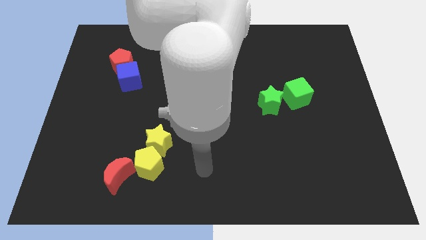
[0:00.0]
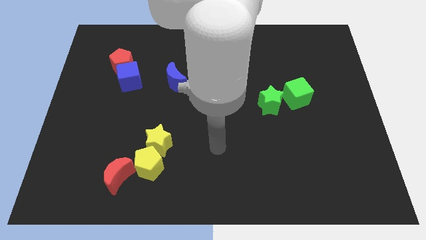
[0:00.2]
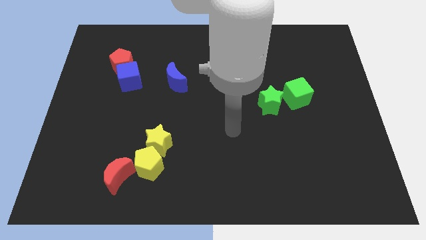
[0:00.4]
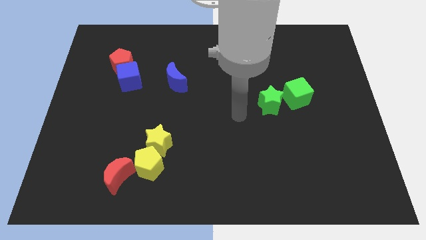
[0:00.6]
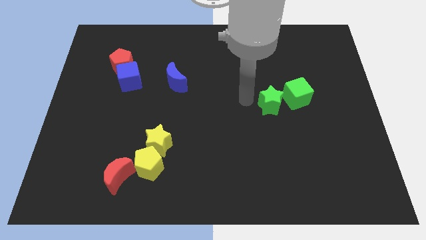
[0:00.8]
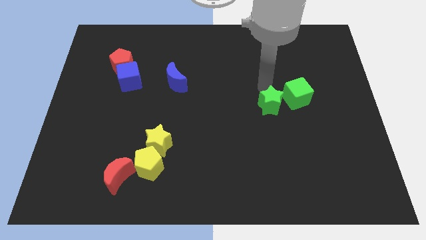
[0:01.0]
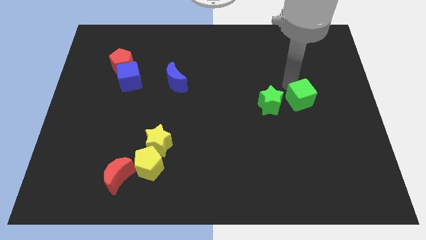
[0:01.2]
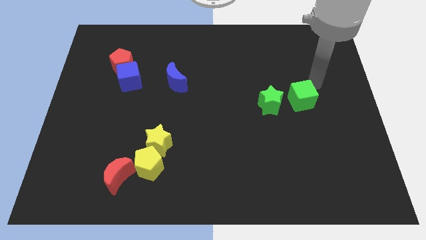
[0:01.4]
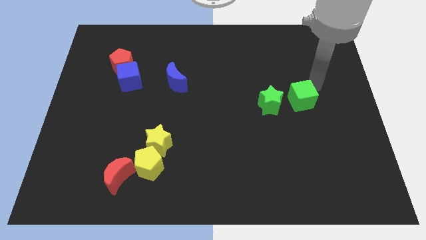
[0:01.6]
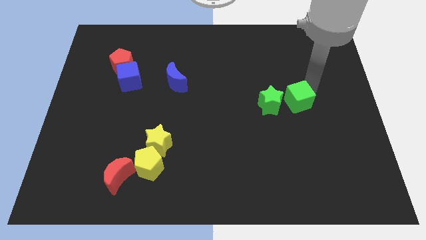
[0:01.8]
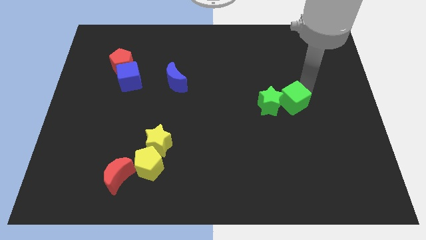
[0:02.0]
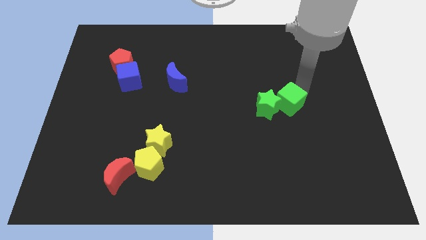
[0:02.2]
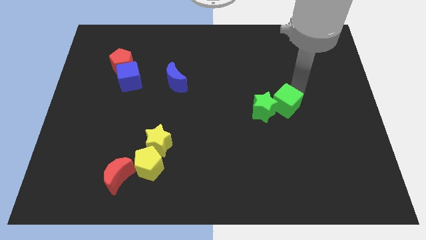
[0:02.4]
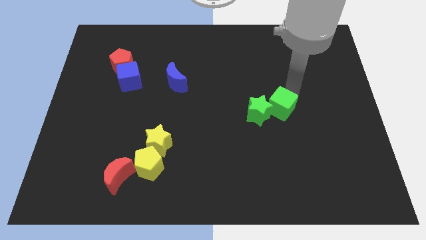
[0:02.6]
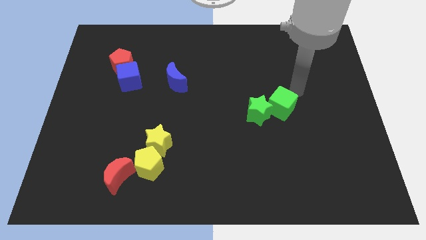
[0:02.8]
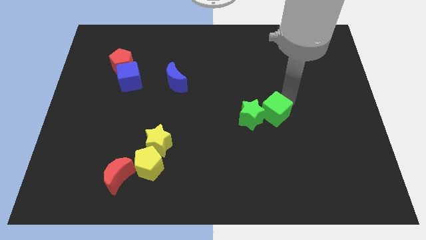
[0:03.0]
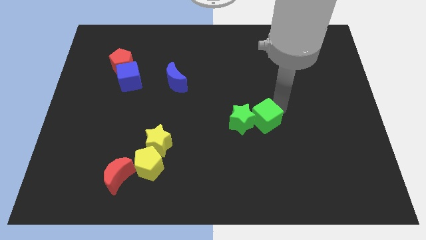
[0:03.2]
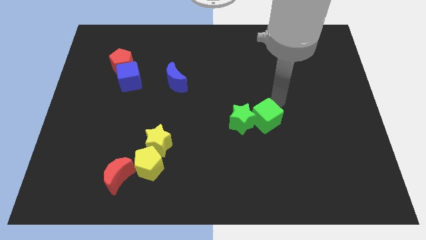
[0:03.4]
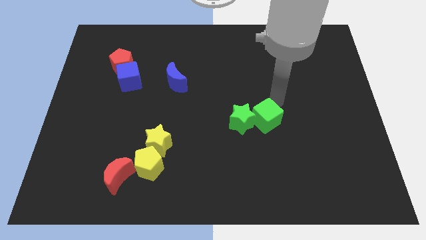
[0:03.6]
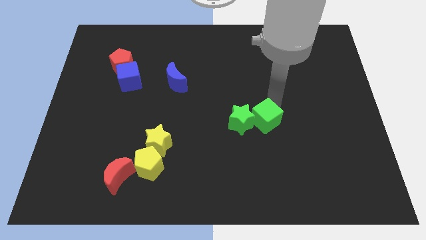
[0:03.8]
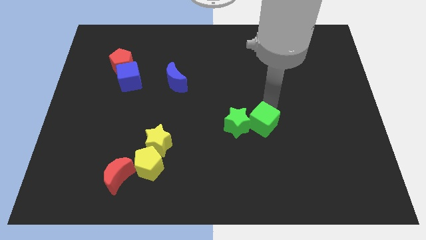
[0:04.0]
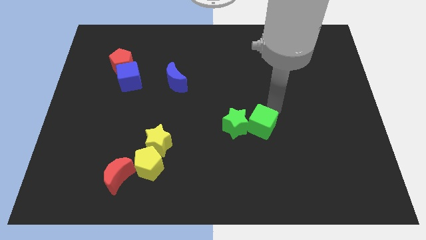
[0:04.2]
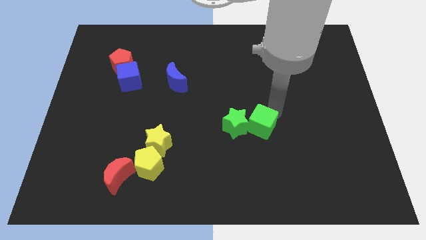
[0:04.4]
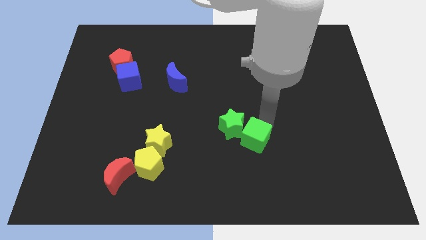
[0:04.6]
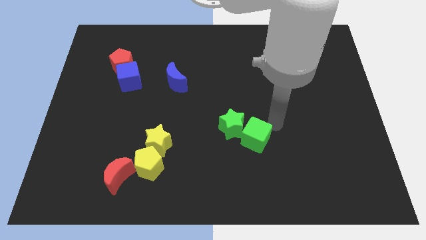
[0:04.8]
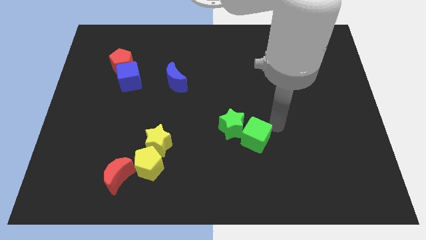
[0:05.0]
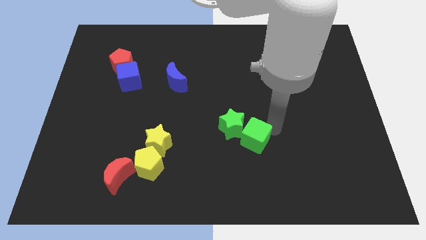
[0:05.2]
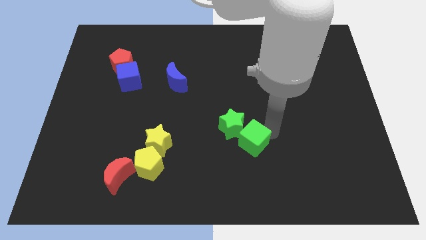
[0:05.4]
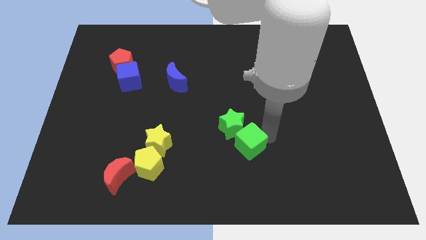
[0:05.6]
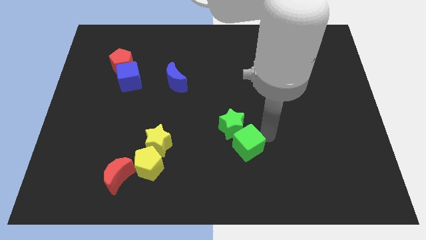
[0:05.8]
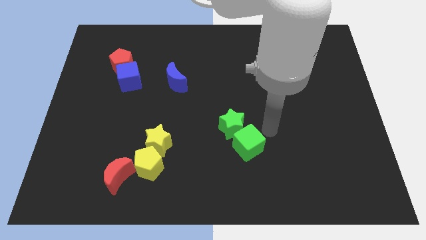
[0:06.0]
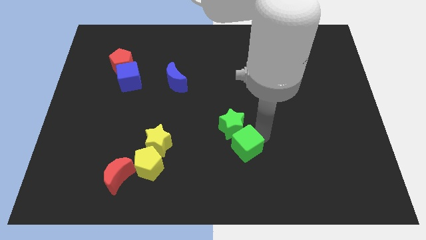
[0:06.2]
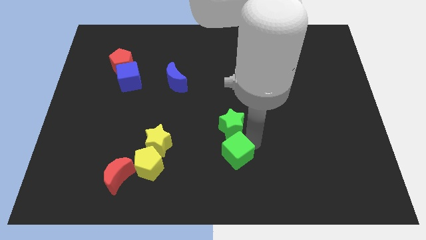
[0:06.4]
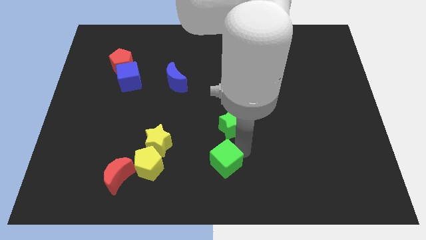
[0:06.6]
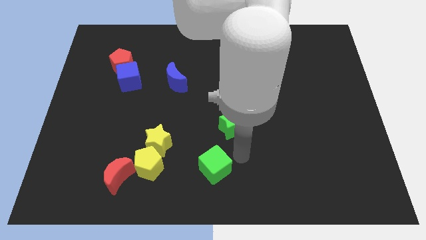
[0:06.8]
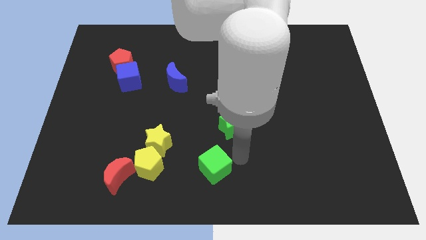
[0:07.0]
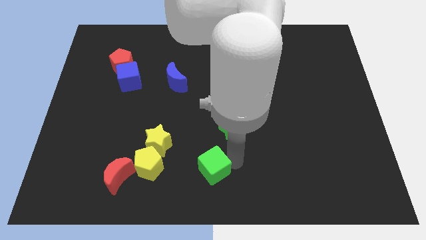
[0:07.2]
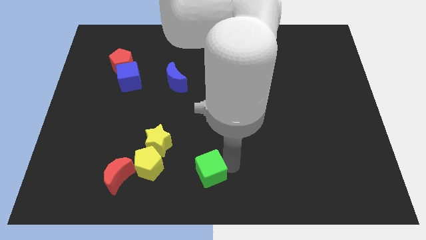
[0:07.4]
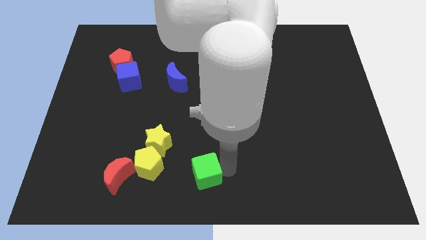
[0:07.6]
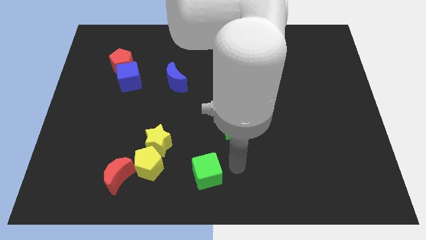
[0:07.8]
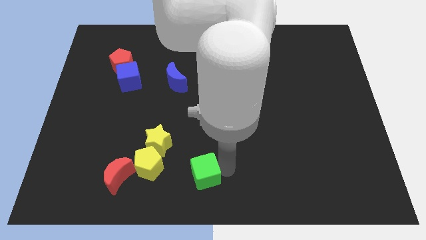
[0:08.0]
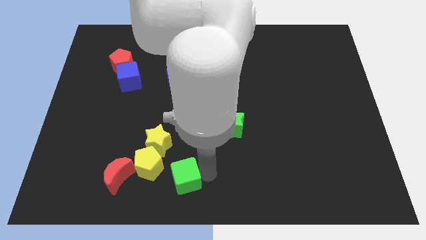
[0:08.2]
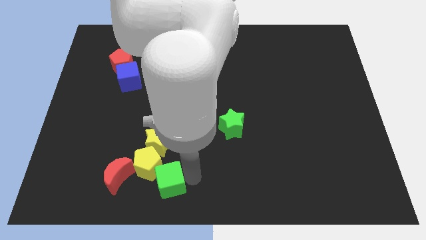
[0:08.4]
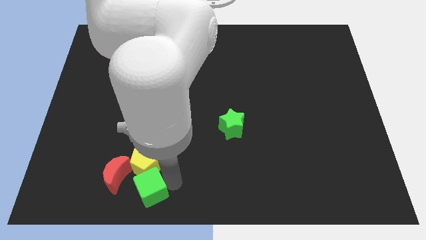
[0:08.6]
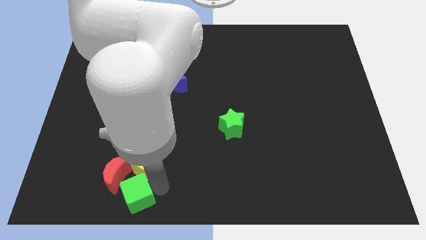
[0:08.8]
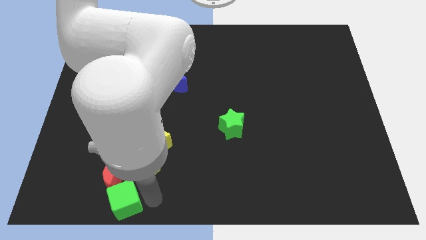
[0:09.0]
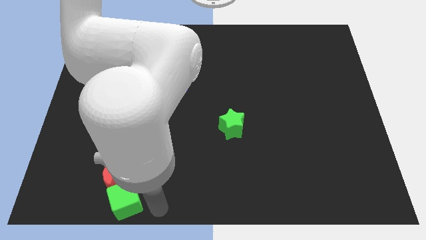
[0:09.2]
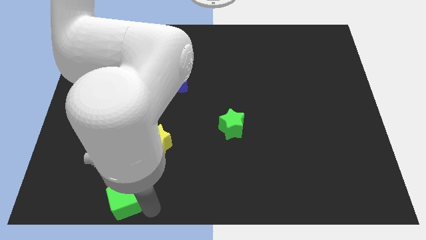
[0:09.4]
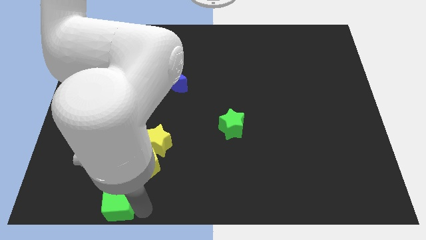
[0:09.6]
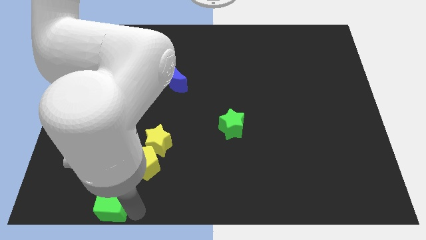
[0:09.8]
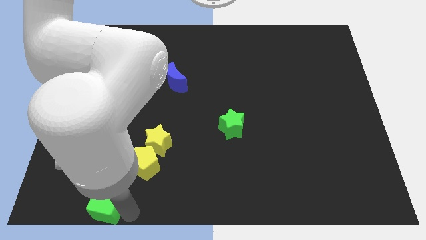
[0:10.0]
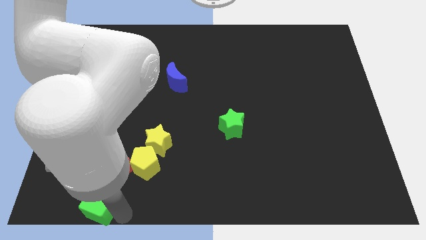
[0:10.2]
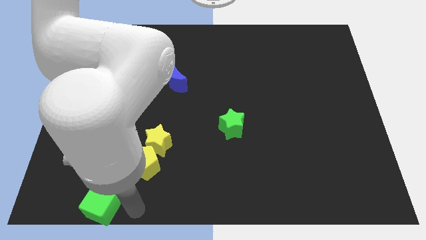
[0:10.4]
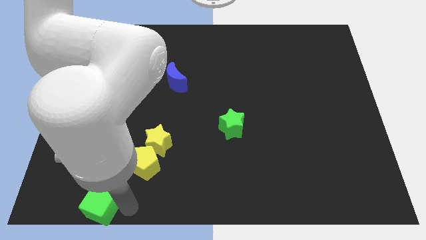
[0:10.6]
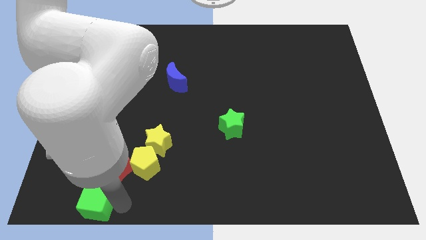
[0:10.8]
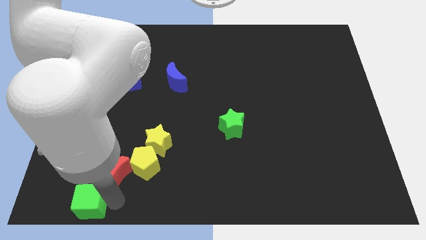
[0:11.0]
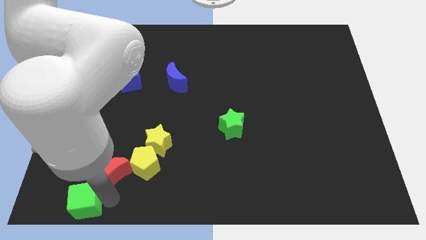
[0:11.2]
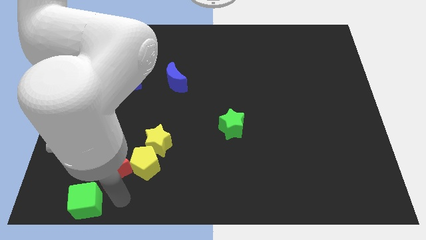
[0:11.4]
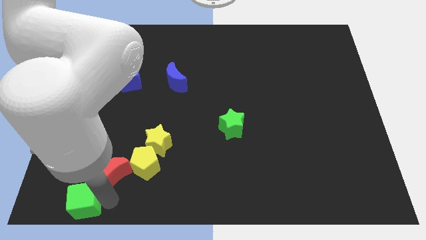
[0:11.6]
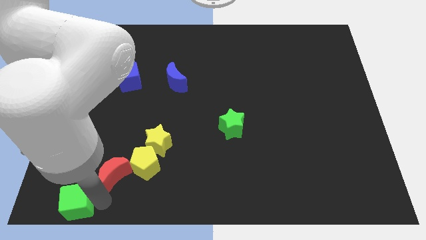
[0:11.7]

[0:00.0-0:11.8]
slide the green cube to the lower left corner
